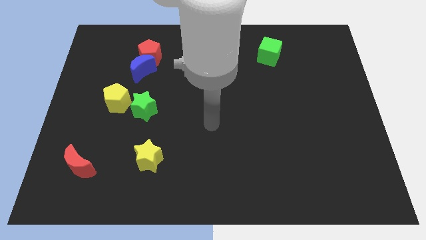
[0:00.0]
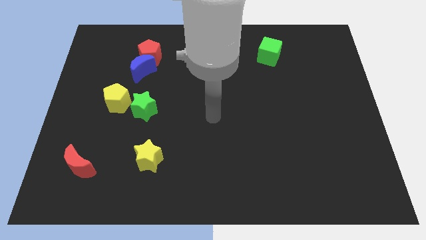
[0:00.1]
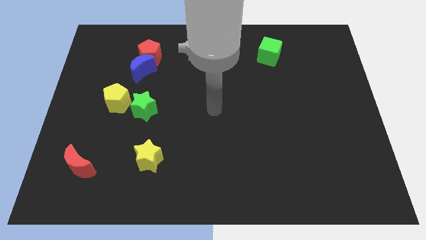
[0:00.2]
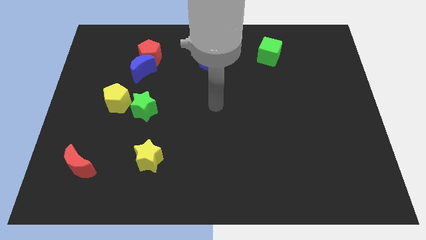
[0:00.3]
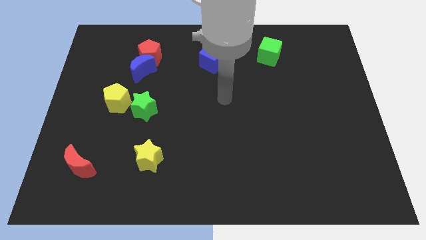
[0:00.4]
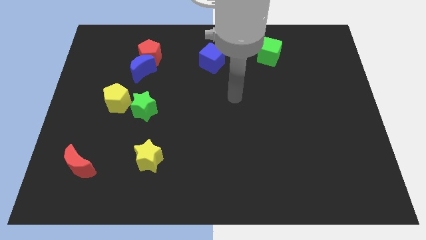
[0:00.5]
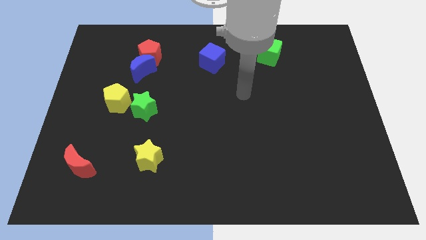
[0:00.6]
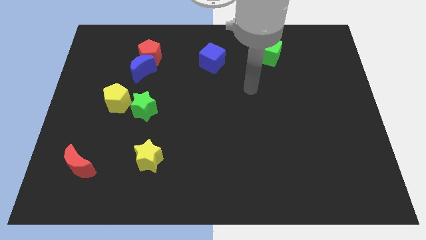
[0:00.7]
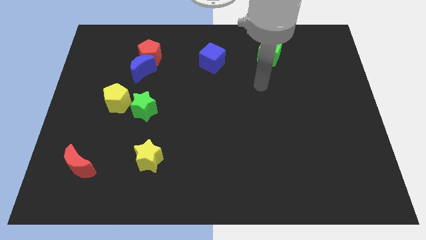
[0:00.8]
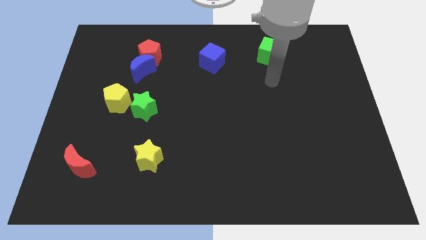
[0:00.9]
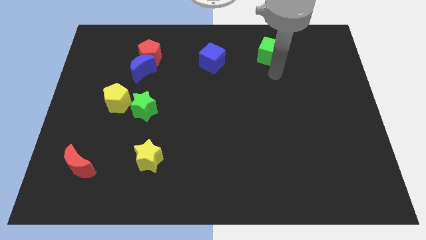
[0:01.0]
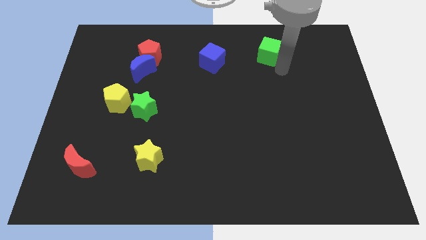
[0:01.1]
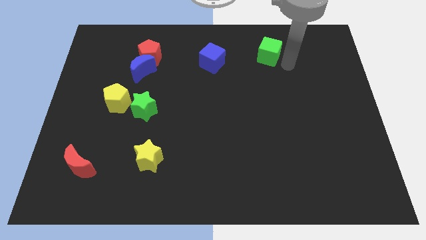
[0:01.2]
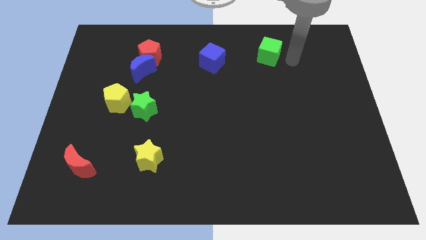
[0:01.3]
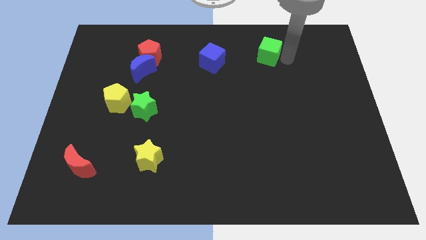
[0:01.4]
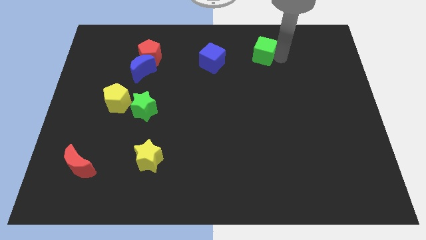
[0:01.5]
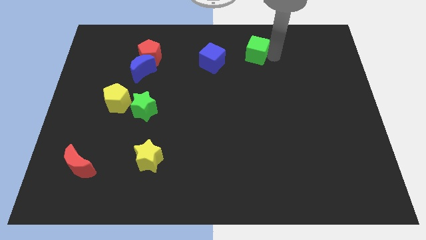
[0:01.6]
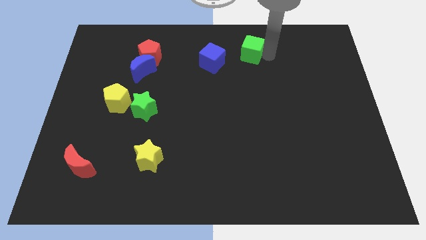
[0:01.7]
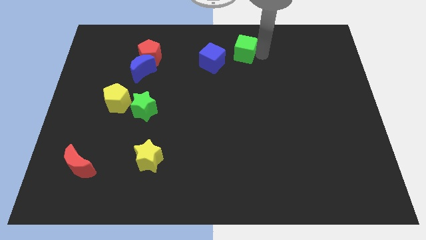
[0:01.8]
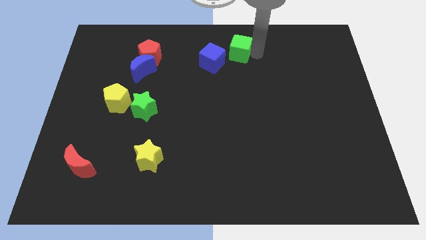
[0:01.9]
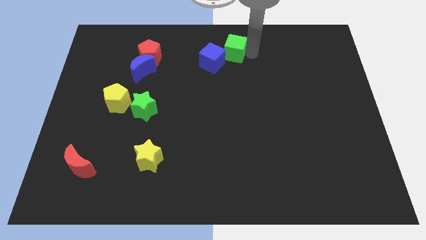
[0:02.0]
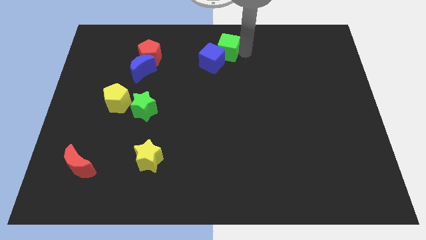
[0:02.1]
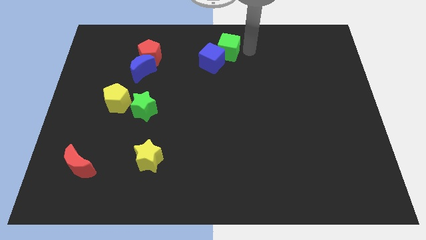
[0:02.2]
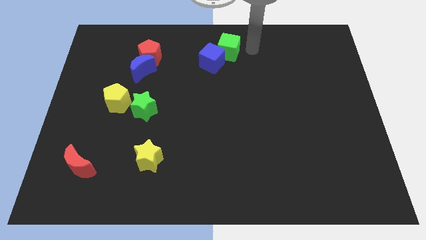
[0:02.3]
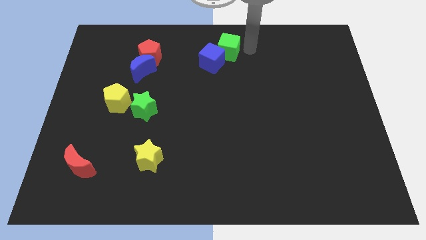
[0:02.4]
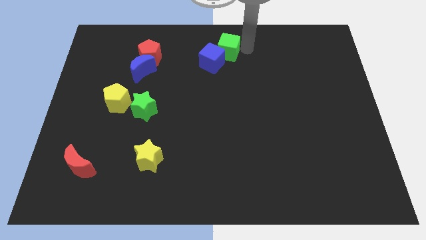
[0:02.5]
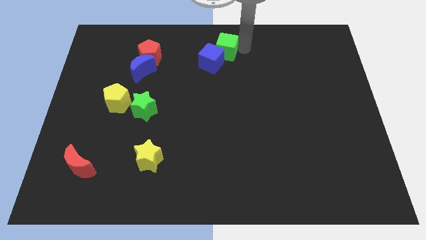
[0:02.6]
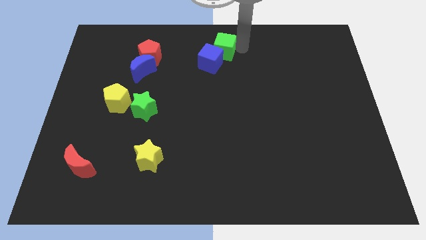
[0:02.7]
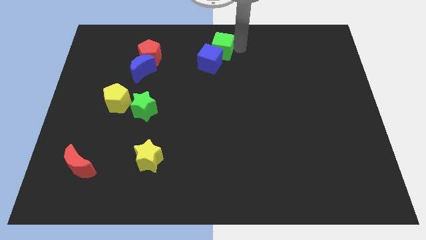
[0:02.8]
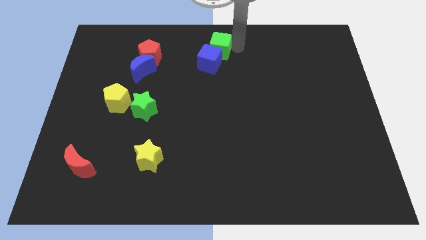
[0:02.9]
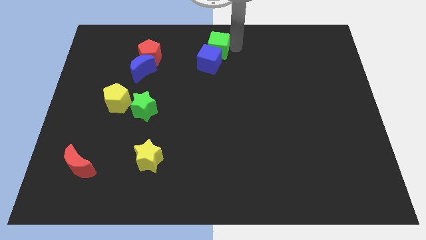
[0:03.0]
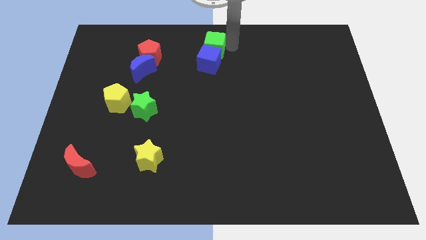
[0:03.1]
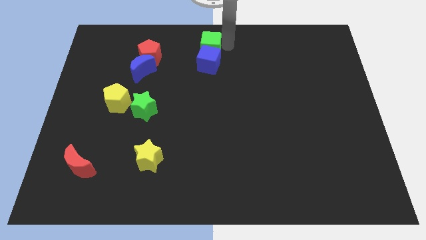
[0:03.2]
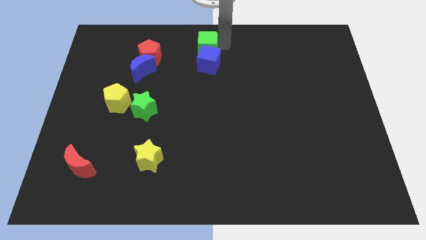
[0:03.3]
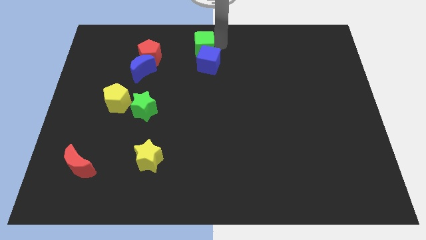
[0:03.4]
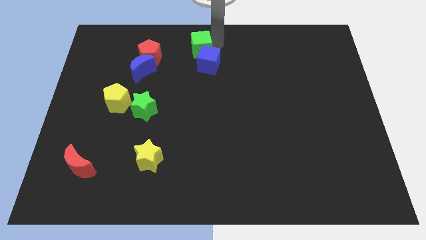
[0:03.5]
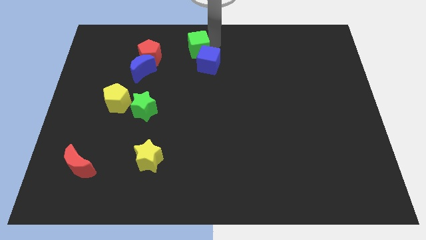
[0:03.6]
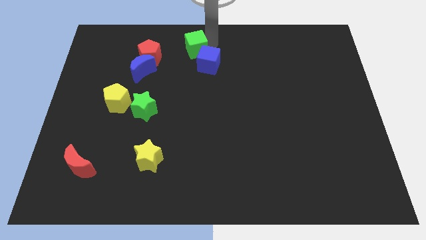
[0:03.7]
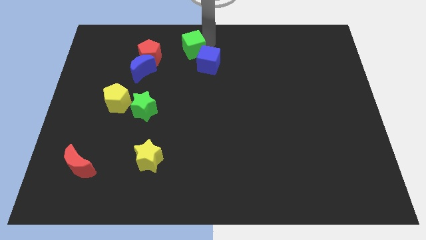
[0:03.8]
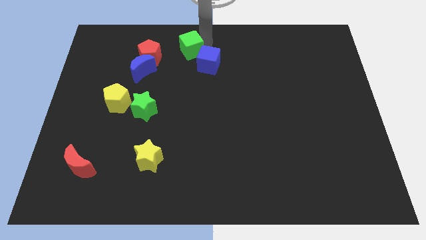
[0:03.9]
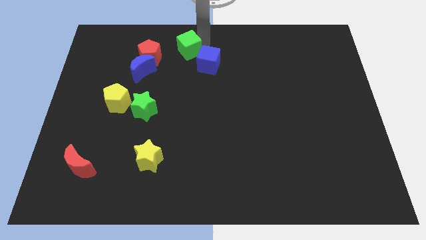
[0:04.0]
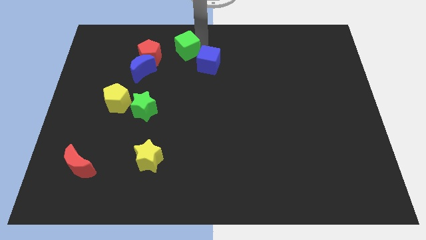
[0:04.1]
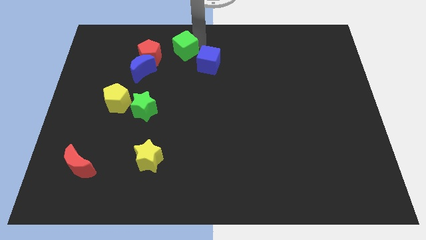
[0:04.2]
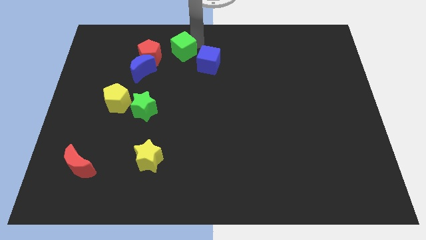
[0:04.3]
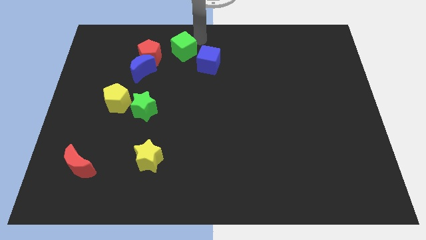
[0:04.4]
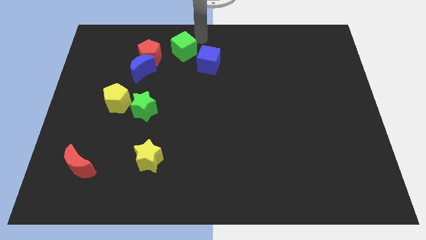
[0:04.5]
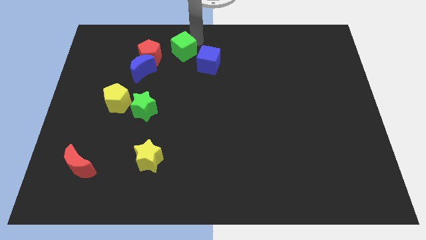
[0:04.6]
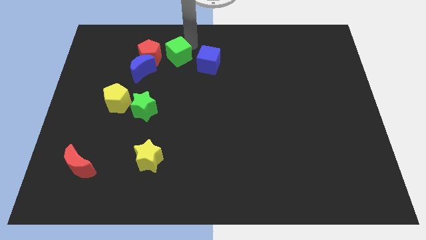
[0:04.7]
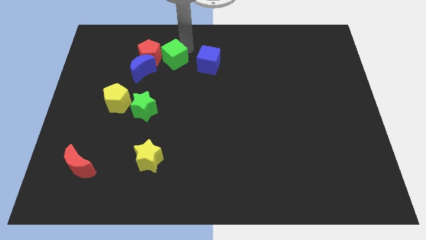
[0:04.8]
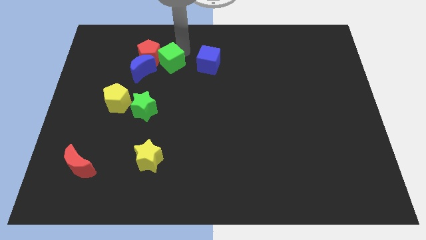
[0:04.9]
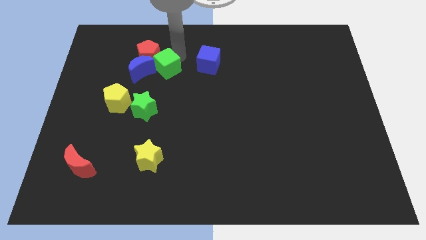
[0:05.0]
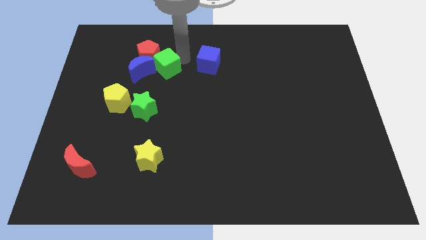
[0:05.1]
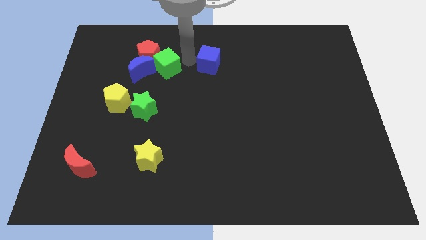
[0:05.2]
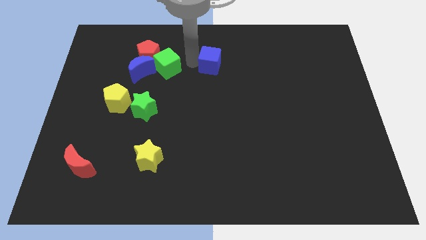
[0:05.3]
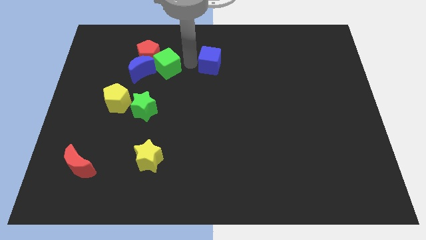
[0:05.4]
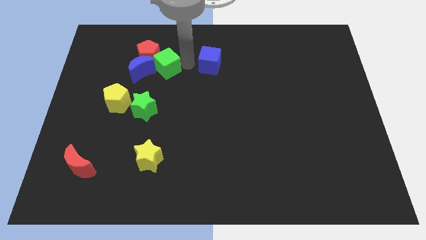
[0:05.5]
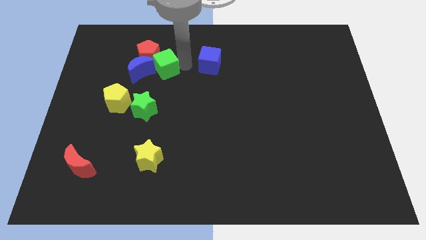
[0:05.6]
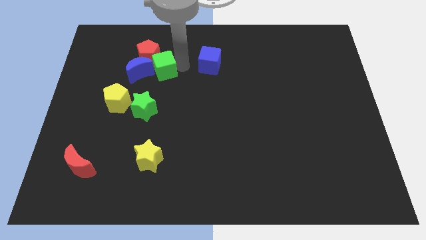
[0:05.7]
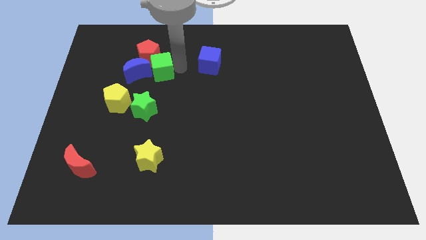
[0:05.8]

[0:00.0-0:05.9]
slide the green cube to the blue moon
